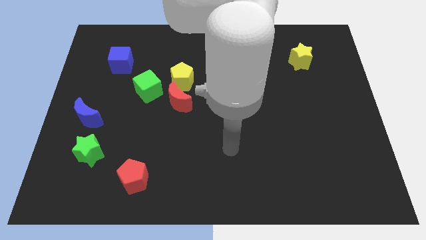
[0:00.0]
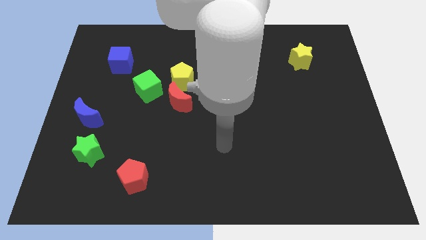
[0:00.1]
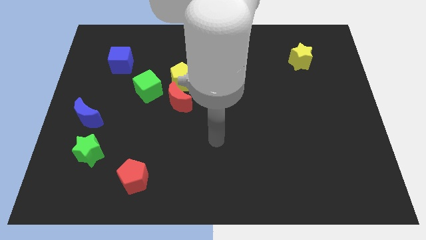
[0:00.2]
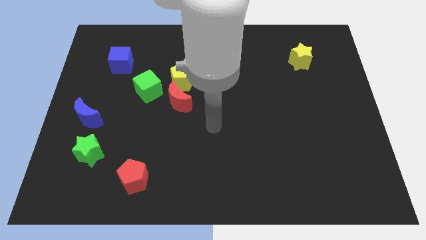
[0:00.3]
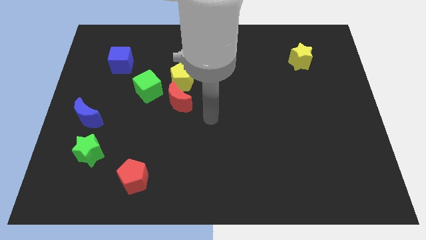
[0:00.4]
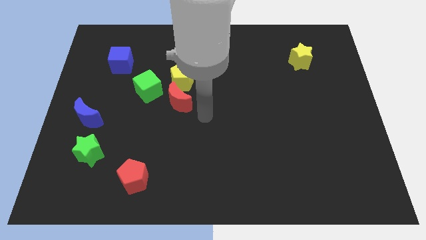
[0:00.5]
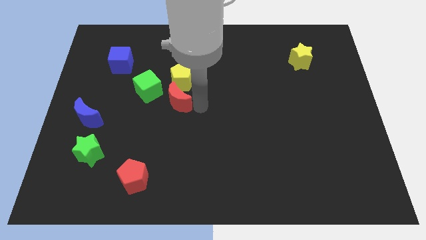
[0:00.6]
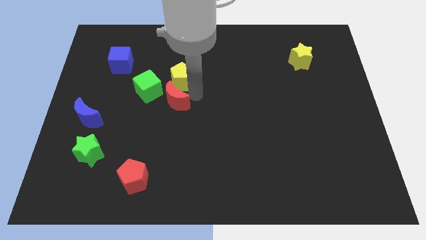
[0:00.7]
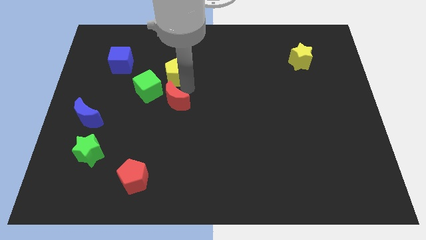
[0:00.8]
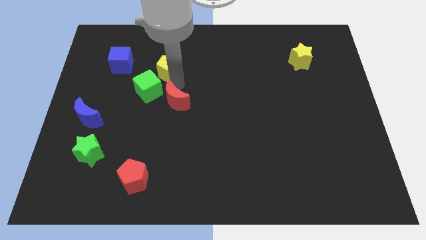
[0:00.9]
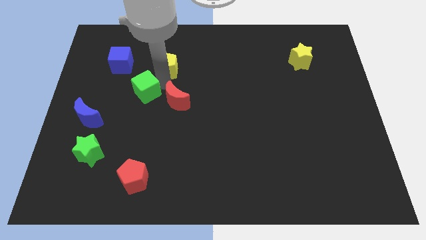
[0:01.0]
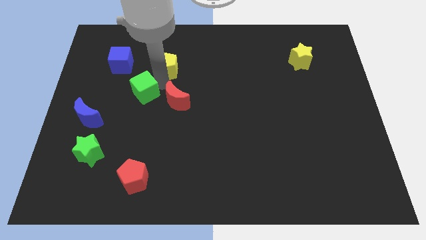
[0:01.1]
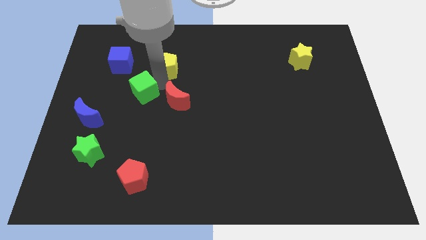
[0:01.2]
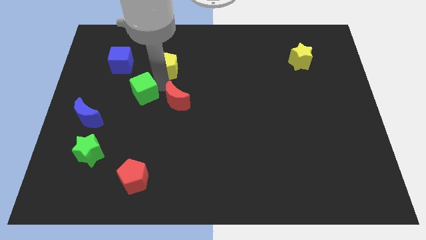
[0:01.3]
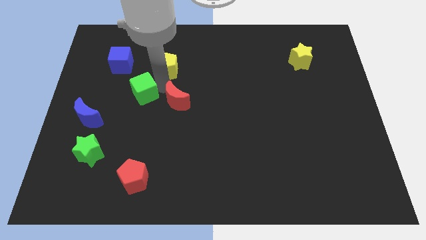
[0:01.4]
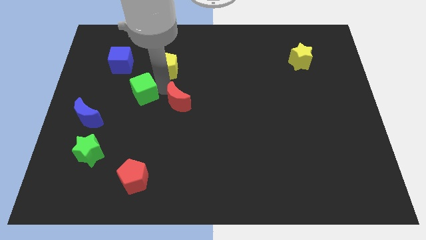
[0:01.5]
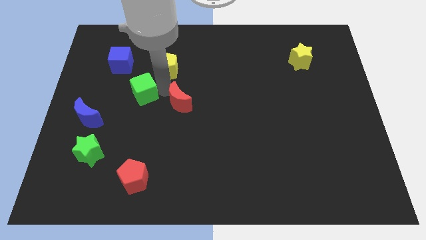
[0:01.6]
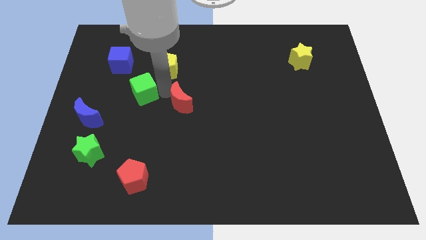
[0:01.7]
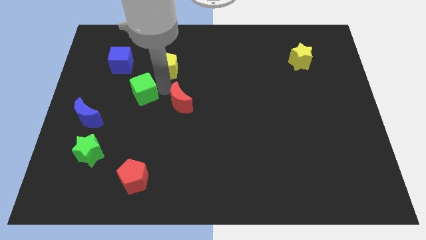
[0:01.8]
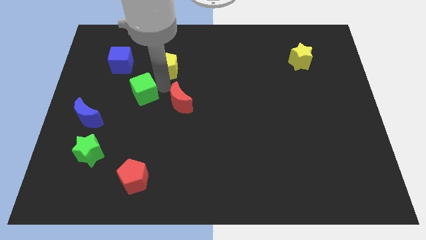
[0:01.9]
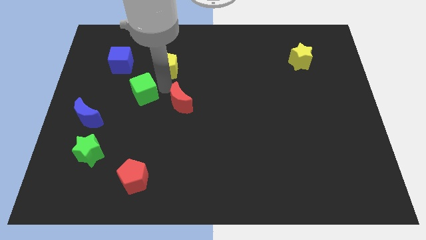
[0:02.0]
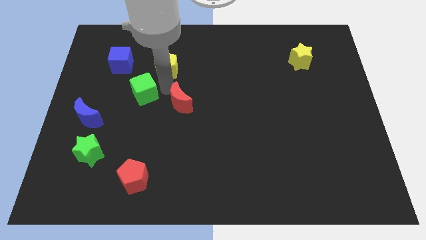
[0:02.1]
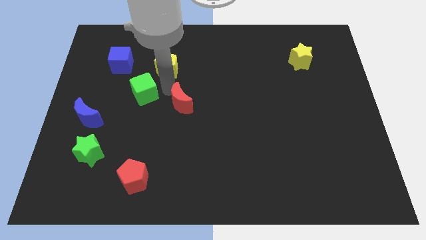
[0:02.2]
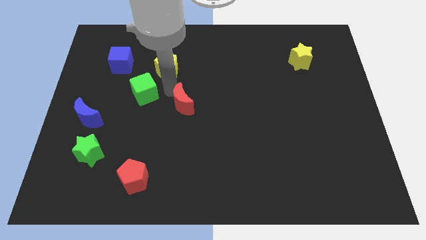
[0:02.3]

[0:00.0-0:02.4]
move the red moon away from the yellow pentagon and green cube

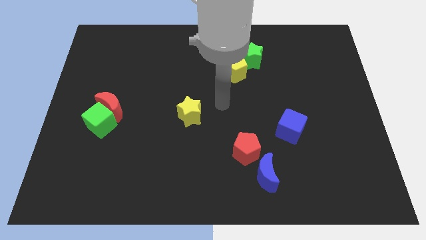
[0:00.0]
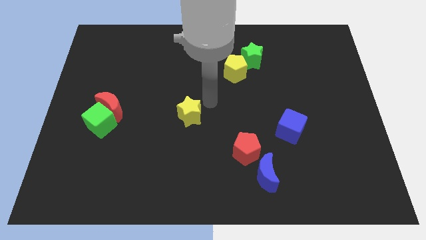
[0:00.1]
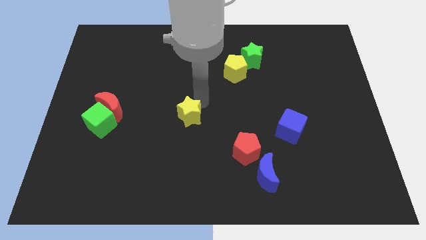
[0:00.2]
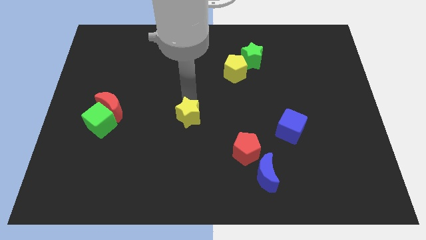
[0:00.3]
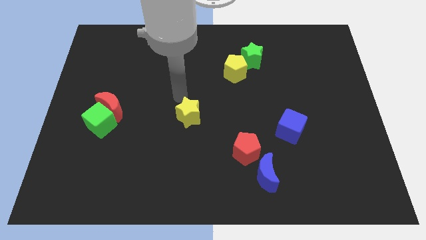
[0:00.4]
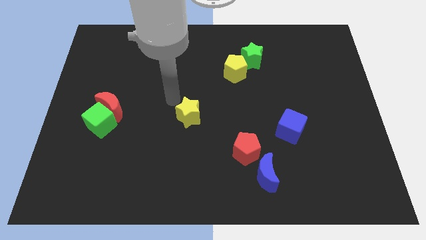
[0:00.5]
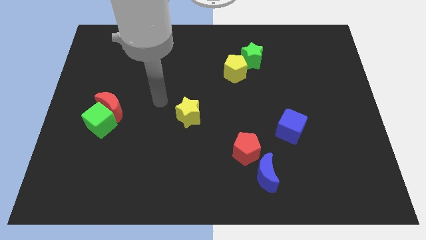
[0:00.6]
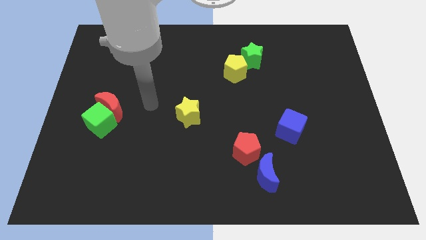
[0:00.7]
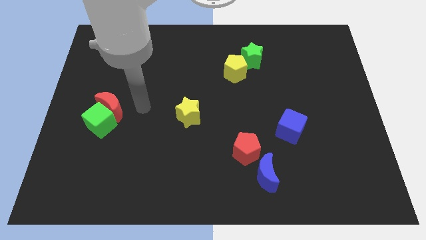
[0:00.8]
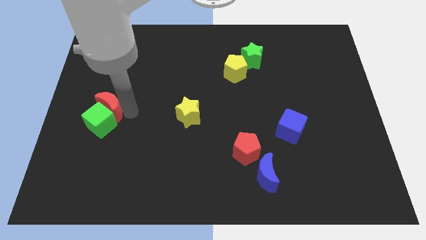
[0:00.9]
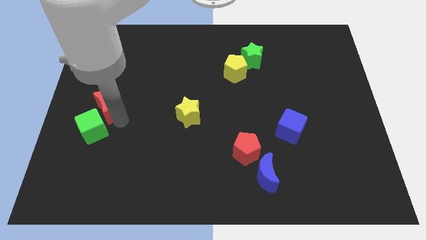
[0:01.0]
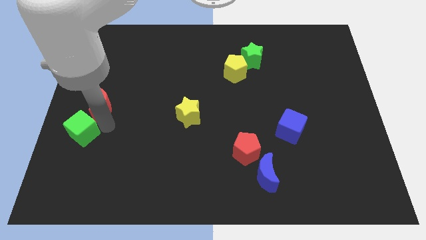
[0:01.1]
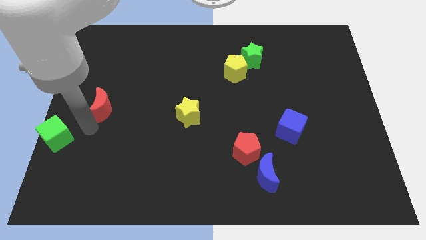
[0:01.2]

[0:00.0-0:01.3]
move the red moon away from the green cube

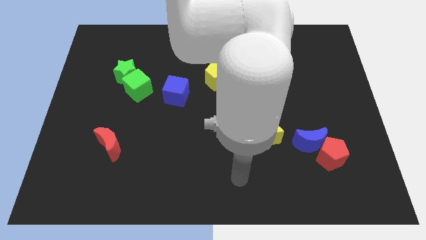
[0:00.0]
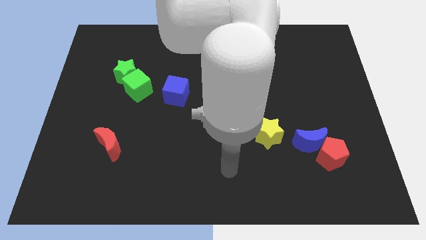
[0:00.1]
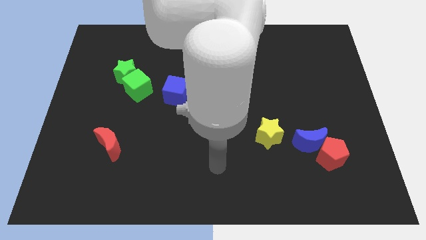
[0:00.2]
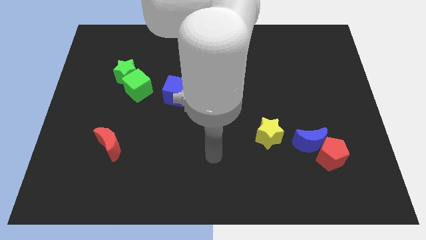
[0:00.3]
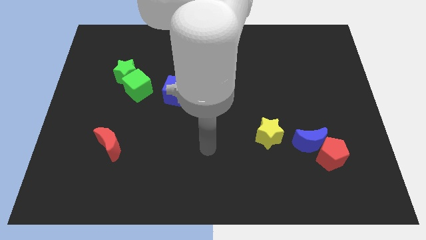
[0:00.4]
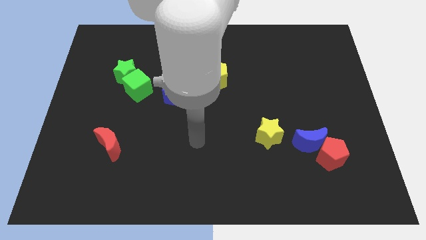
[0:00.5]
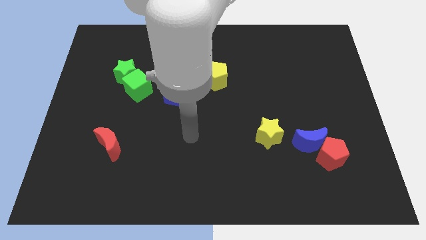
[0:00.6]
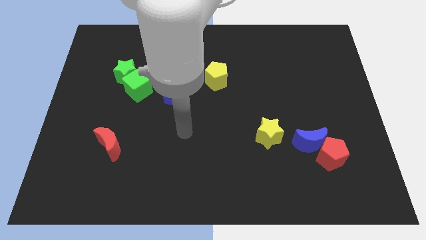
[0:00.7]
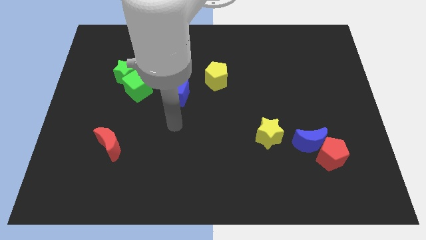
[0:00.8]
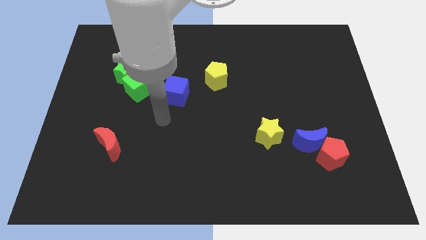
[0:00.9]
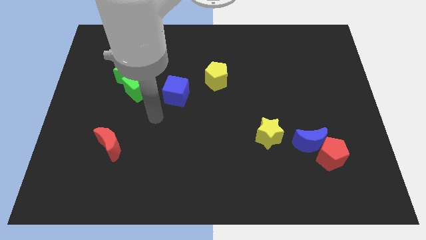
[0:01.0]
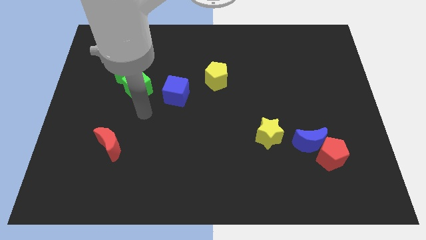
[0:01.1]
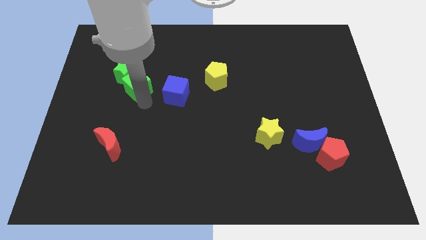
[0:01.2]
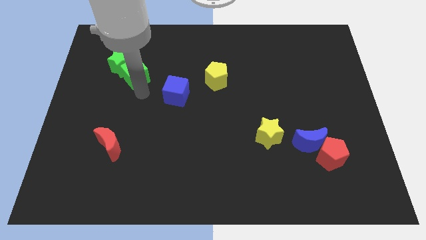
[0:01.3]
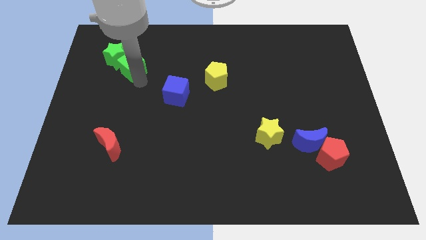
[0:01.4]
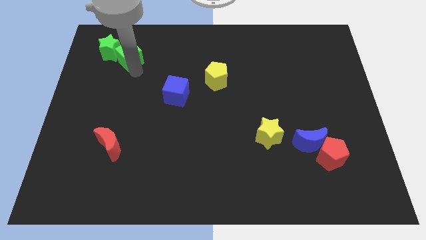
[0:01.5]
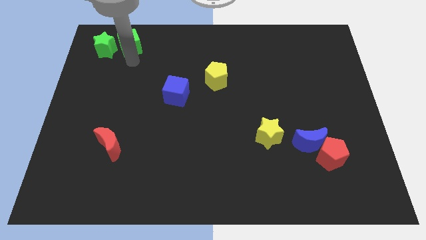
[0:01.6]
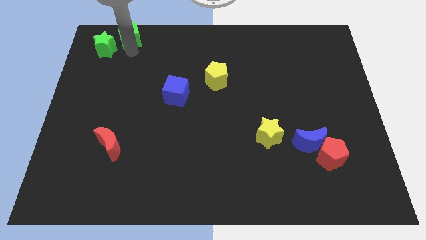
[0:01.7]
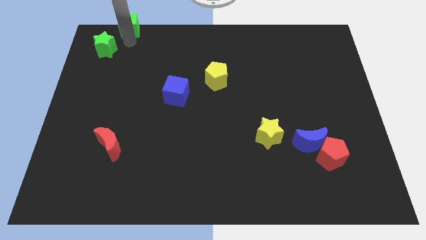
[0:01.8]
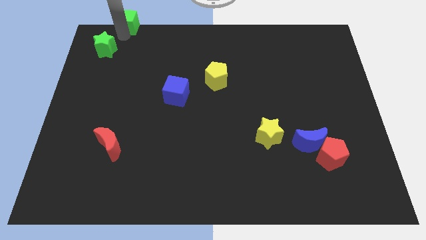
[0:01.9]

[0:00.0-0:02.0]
move the green star away from the green cube

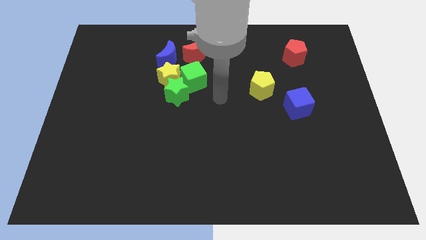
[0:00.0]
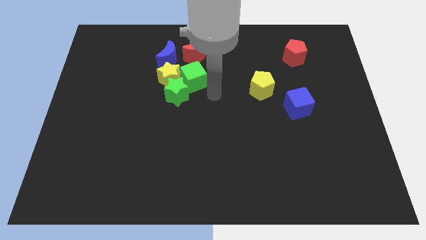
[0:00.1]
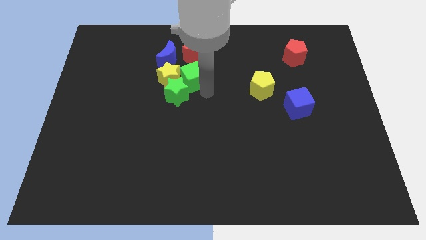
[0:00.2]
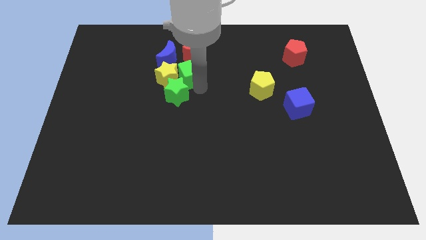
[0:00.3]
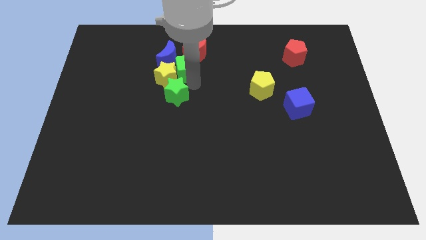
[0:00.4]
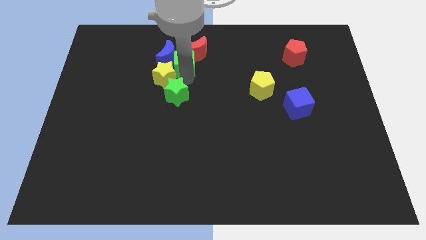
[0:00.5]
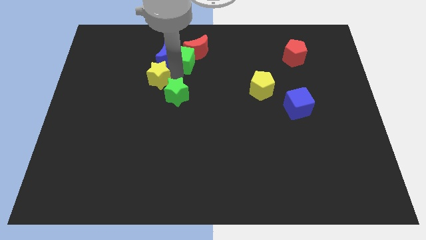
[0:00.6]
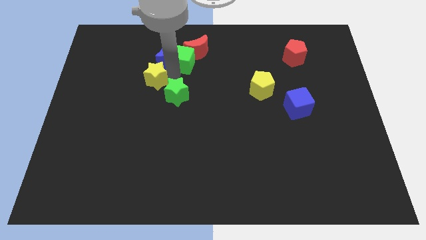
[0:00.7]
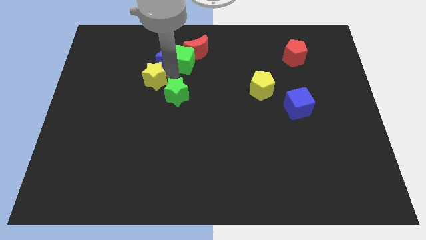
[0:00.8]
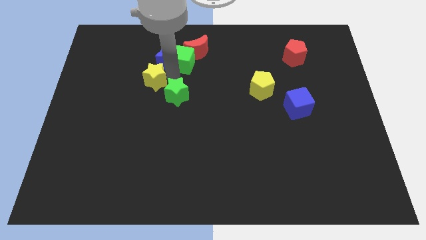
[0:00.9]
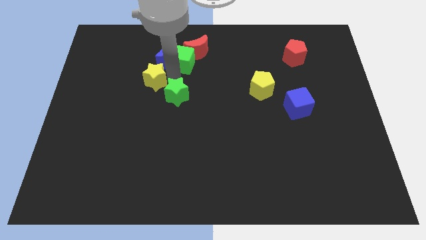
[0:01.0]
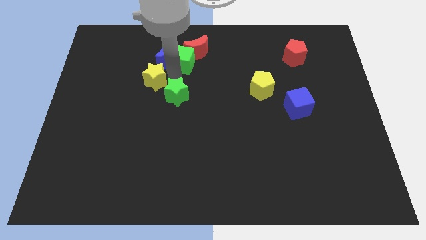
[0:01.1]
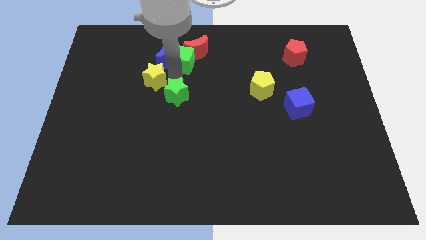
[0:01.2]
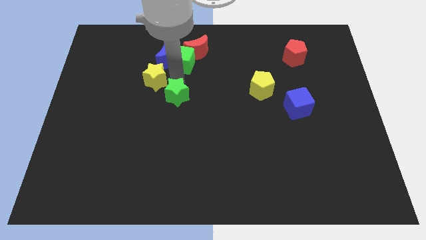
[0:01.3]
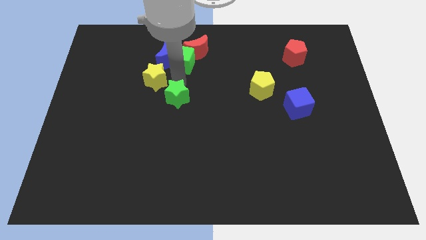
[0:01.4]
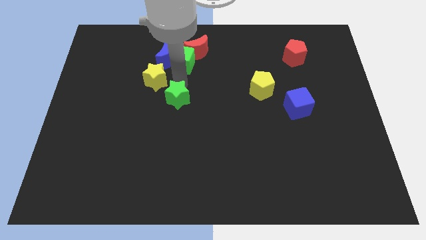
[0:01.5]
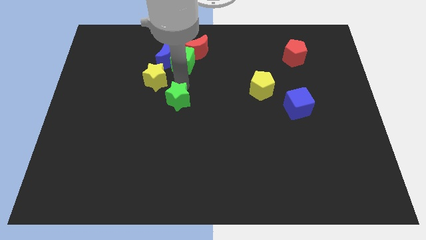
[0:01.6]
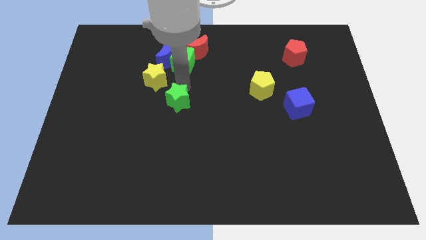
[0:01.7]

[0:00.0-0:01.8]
separate the green star from the yellow star and green cube

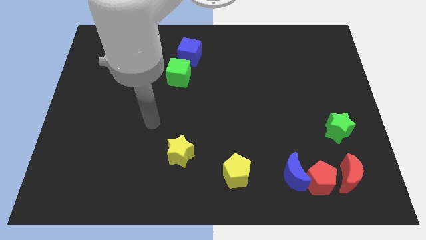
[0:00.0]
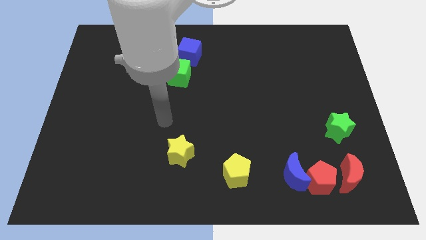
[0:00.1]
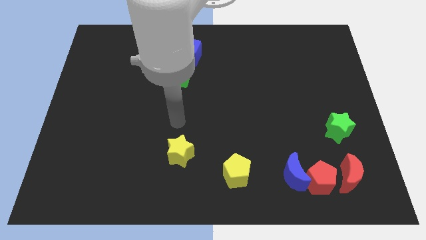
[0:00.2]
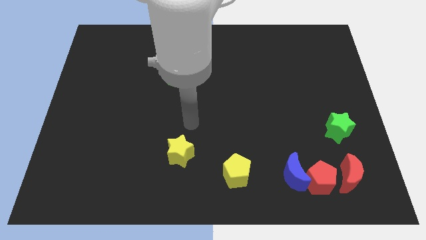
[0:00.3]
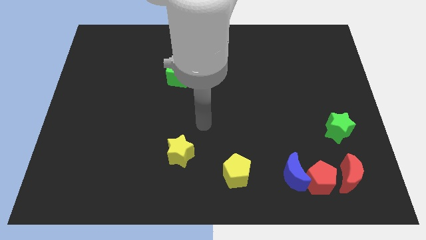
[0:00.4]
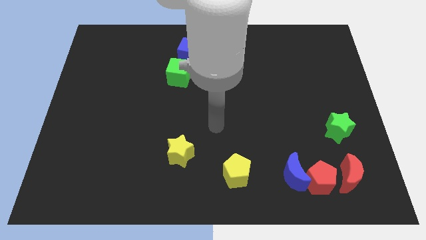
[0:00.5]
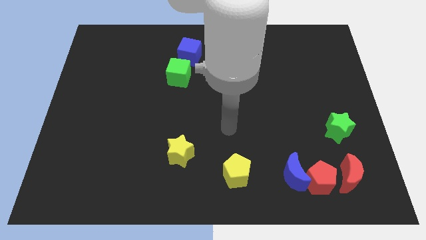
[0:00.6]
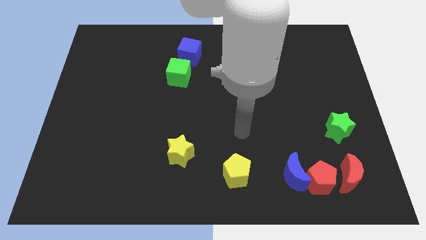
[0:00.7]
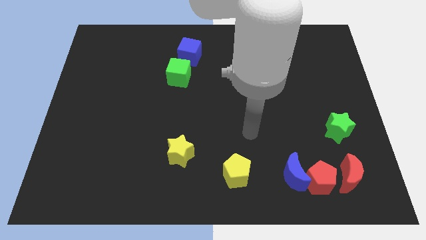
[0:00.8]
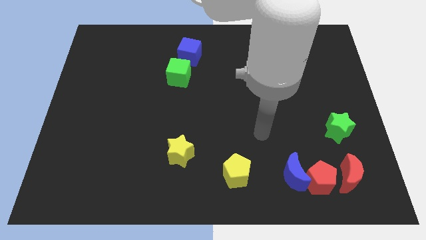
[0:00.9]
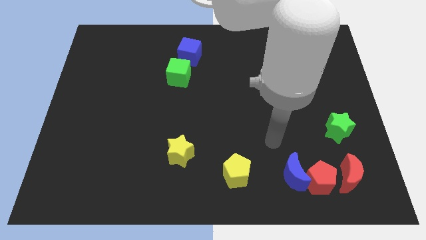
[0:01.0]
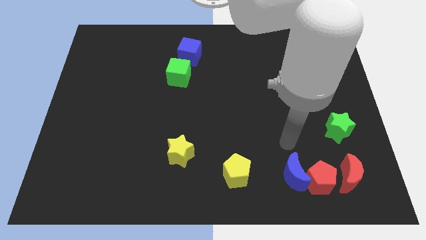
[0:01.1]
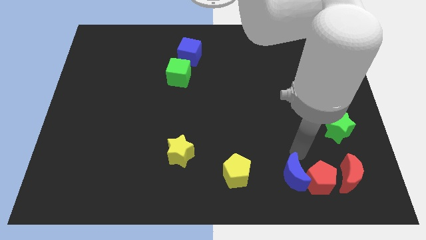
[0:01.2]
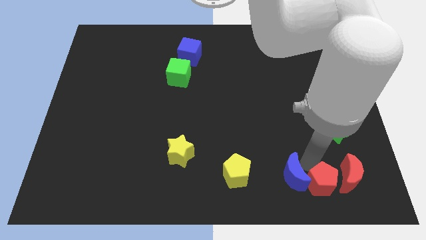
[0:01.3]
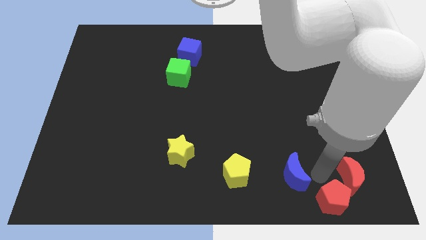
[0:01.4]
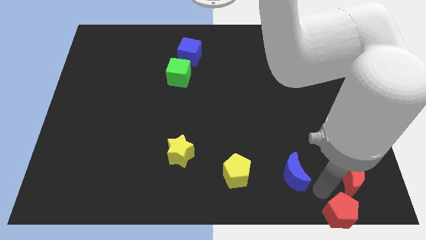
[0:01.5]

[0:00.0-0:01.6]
move the blue moon away from the red pentagon

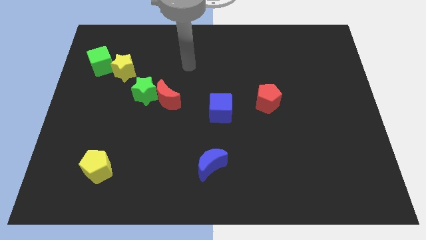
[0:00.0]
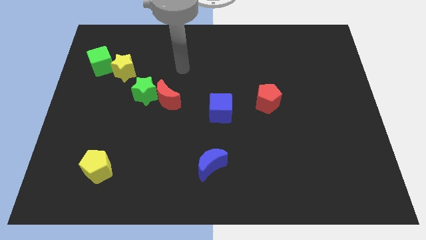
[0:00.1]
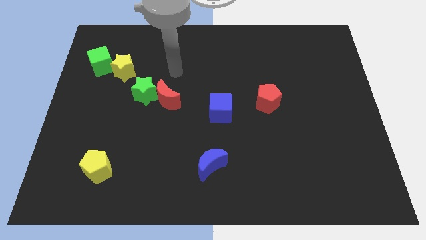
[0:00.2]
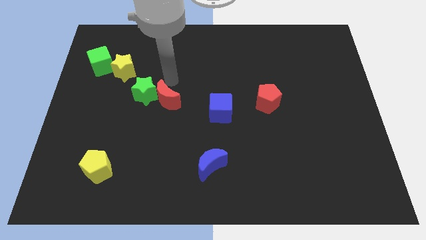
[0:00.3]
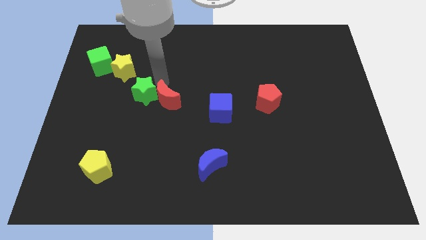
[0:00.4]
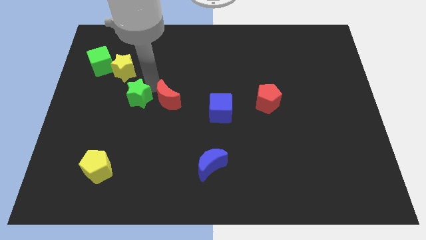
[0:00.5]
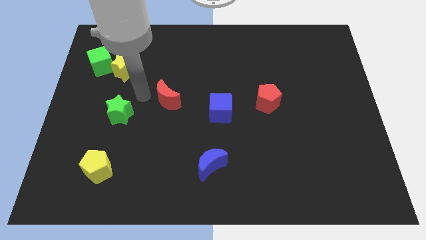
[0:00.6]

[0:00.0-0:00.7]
move the red moon away from the green star